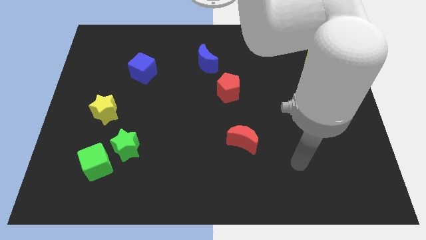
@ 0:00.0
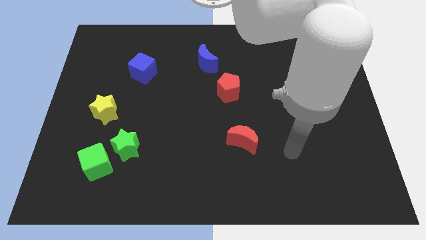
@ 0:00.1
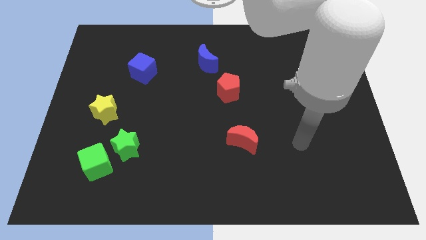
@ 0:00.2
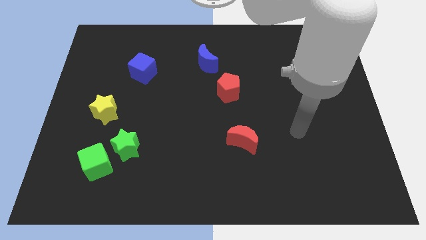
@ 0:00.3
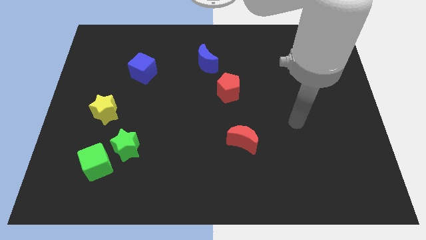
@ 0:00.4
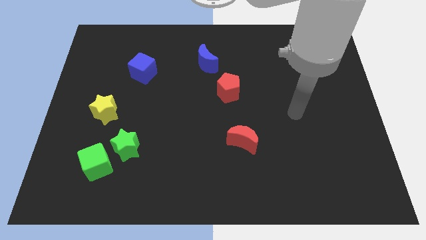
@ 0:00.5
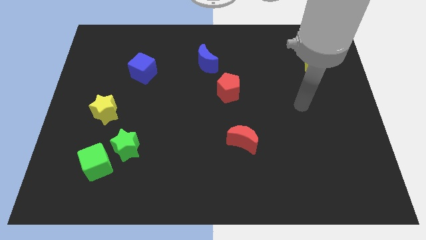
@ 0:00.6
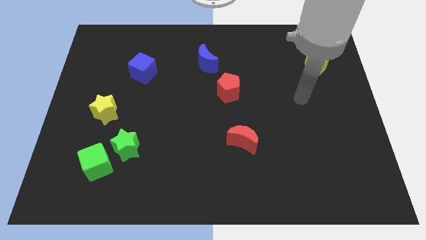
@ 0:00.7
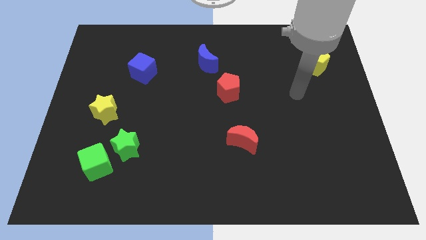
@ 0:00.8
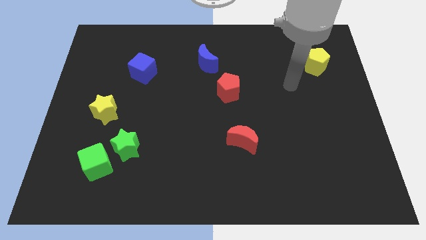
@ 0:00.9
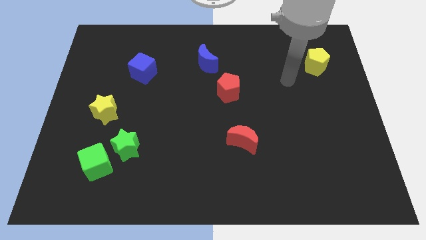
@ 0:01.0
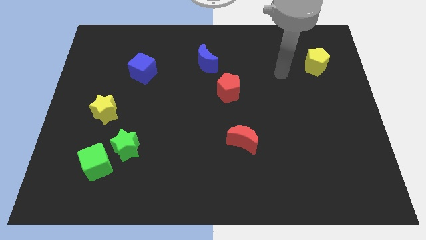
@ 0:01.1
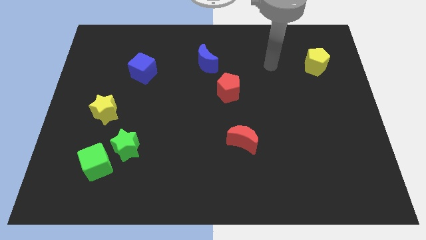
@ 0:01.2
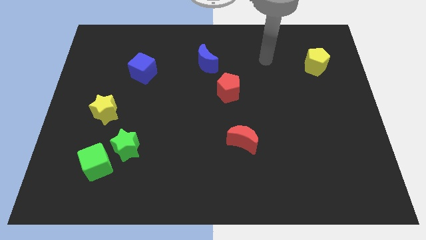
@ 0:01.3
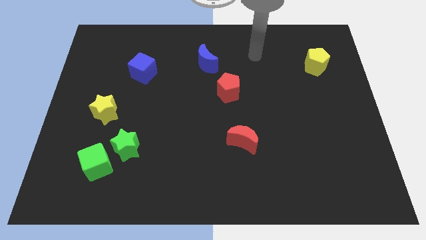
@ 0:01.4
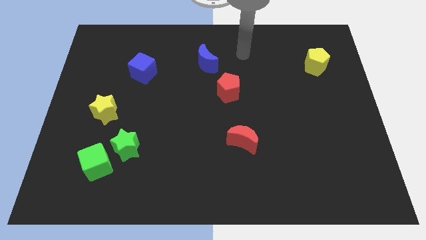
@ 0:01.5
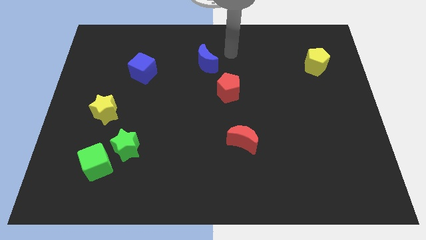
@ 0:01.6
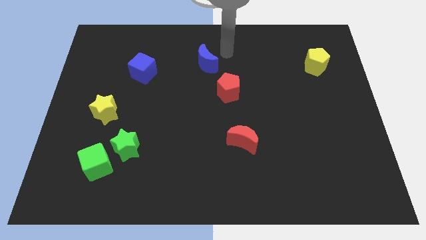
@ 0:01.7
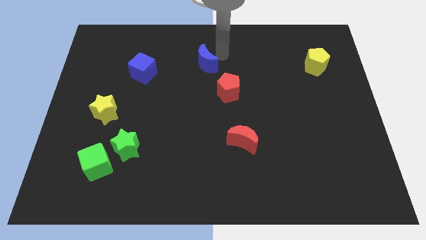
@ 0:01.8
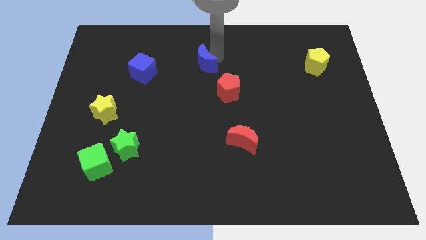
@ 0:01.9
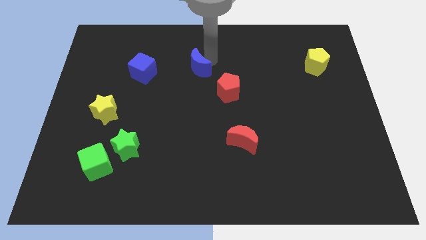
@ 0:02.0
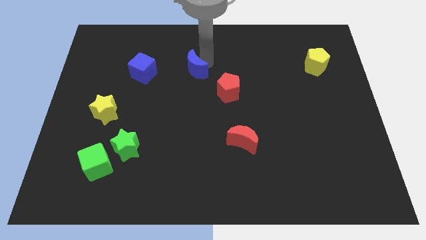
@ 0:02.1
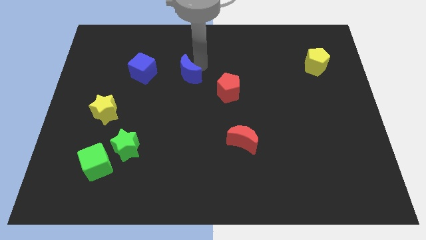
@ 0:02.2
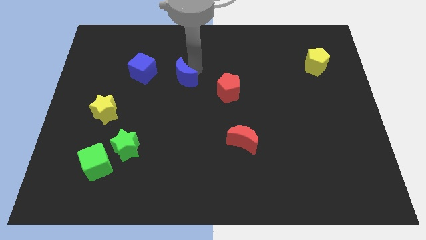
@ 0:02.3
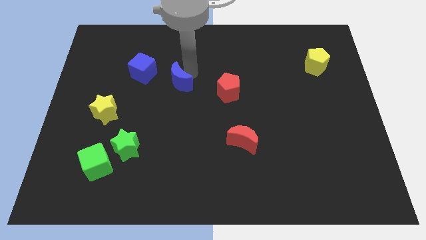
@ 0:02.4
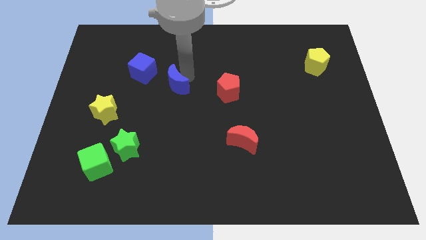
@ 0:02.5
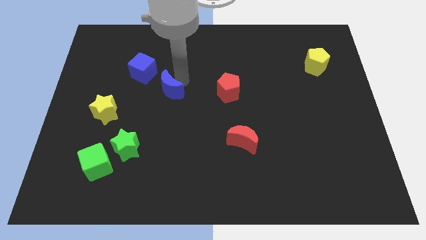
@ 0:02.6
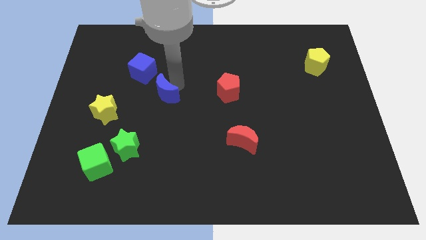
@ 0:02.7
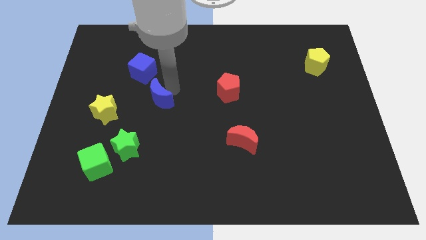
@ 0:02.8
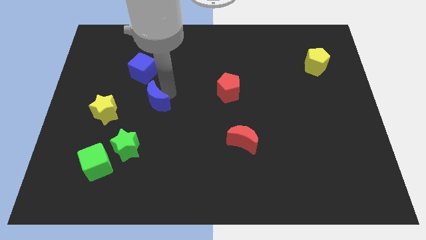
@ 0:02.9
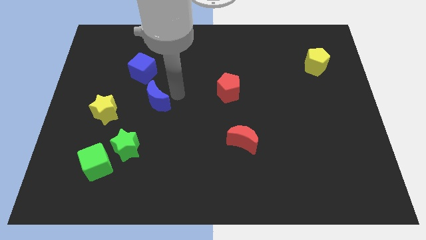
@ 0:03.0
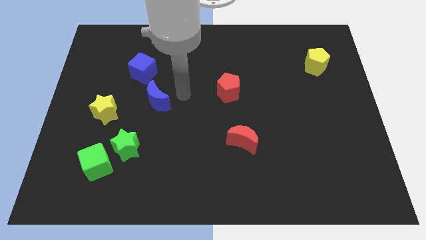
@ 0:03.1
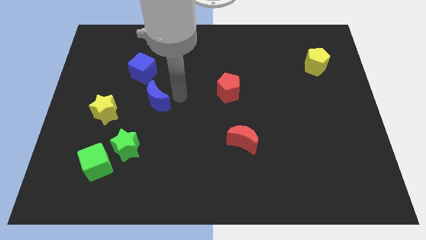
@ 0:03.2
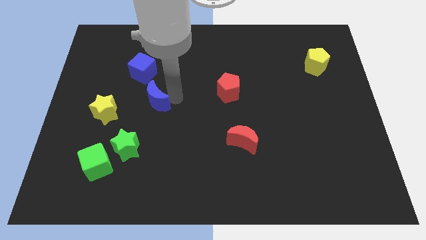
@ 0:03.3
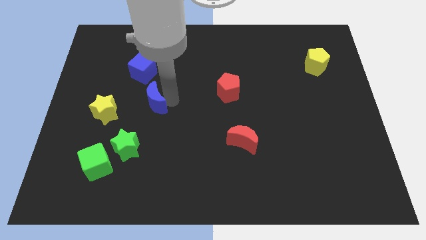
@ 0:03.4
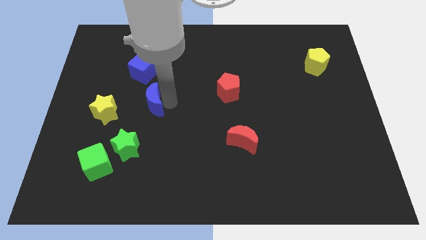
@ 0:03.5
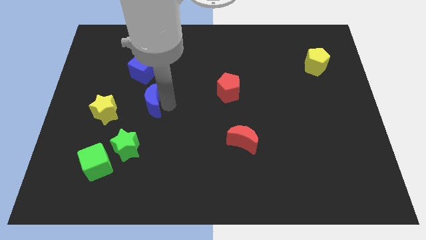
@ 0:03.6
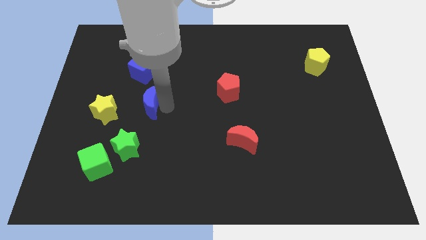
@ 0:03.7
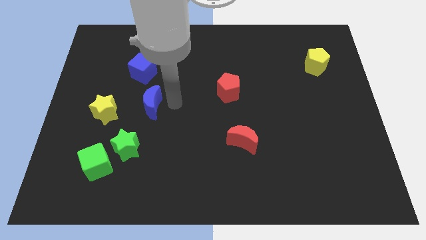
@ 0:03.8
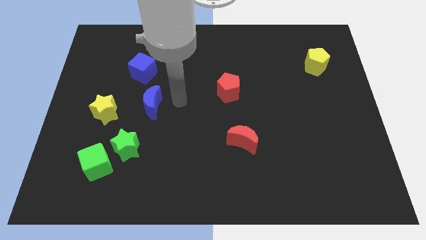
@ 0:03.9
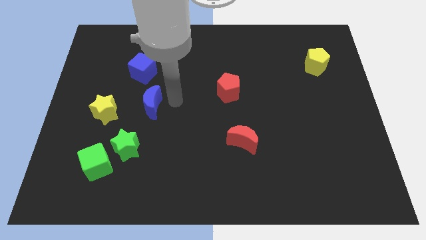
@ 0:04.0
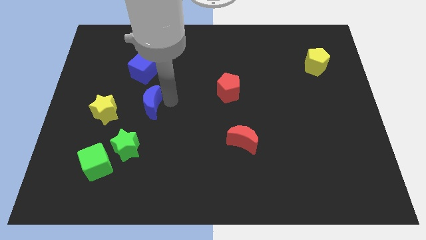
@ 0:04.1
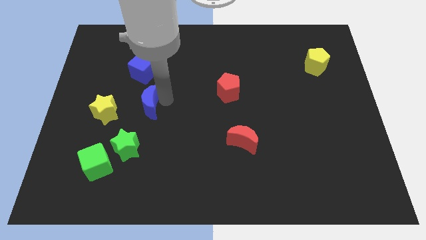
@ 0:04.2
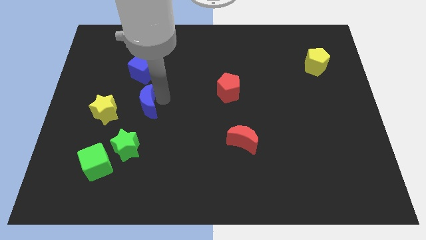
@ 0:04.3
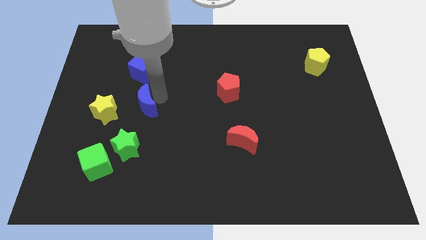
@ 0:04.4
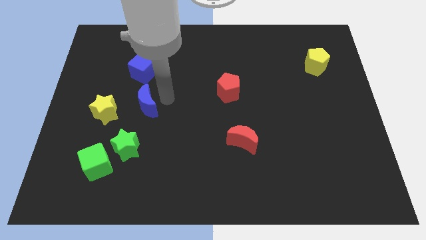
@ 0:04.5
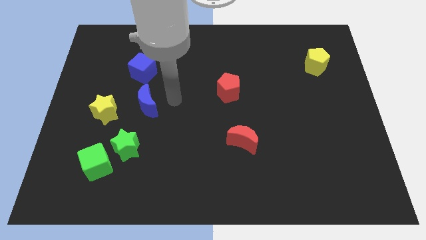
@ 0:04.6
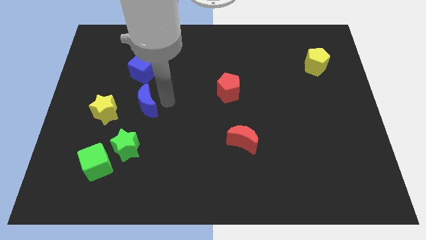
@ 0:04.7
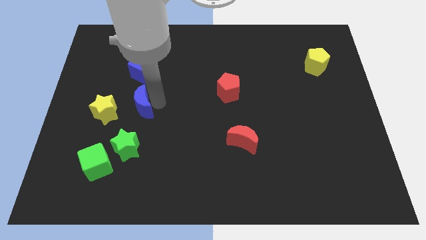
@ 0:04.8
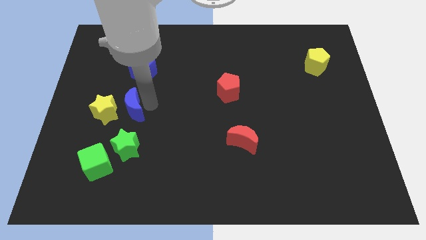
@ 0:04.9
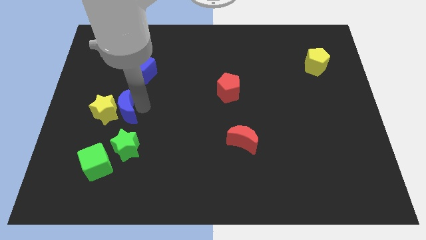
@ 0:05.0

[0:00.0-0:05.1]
slide the blue moon close to the yellow star

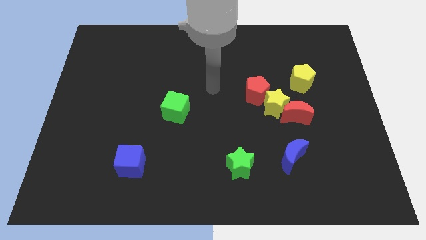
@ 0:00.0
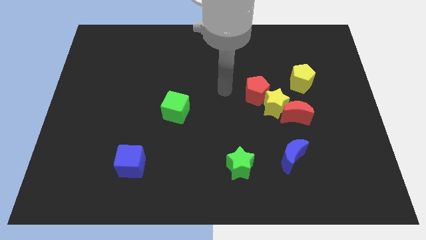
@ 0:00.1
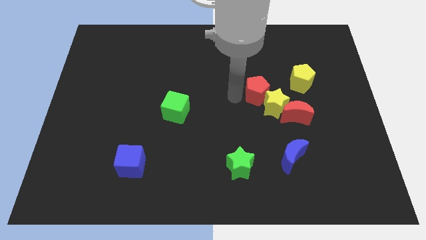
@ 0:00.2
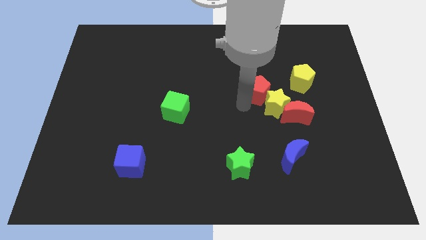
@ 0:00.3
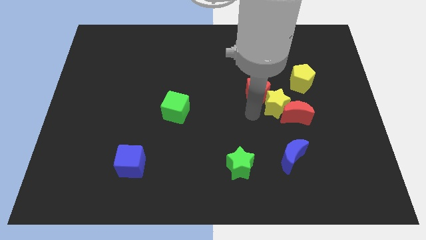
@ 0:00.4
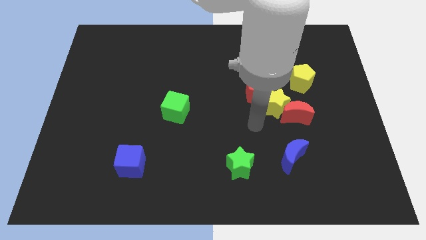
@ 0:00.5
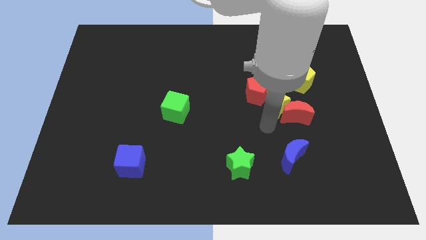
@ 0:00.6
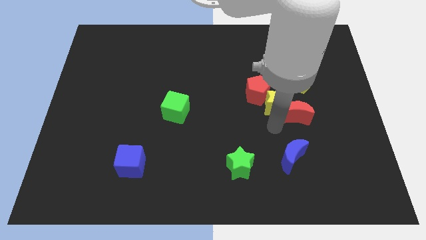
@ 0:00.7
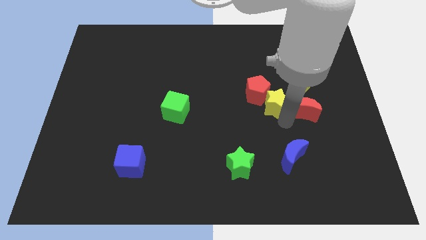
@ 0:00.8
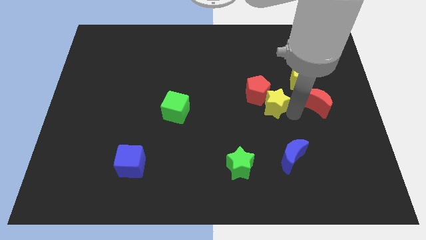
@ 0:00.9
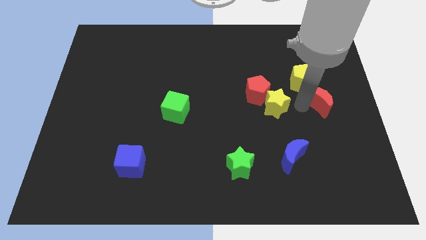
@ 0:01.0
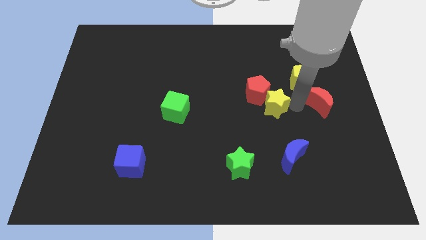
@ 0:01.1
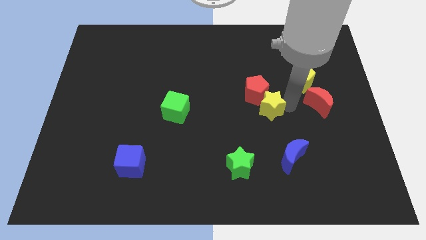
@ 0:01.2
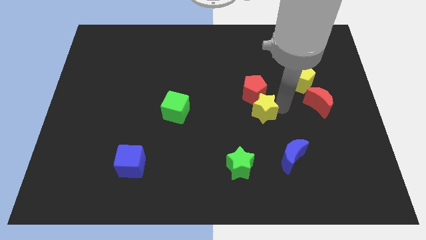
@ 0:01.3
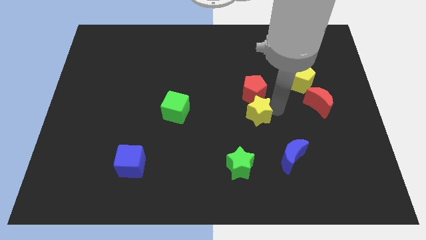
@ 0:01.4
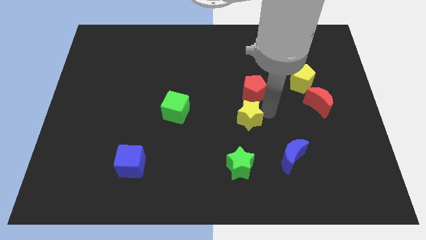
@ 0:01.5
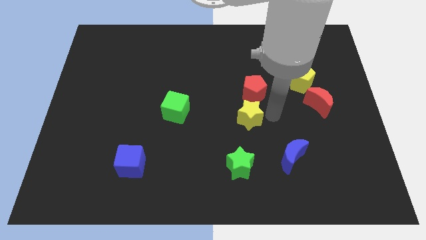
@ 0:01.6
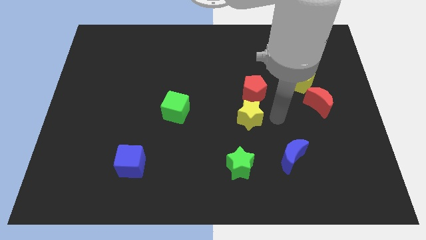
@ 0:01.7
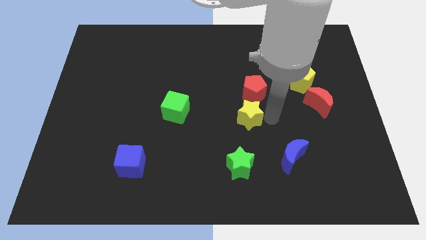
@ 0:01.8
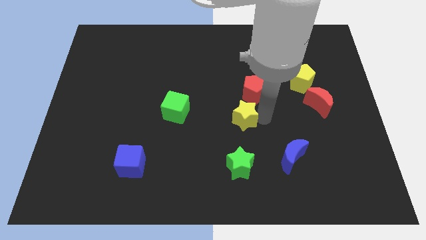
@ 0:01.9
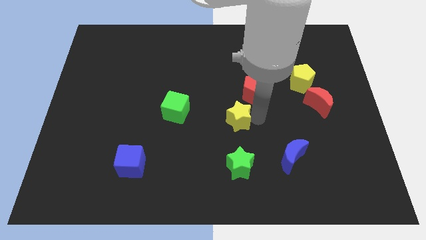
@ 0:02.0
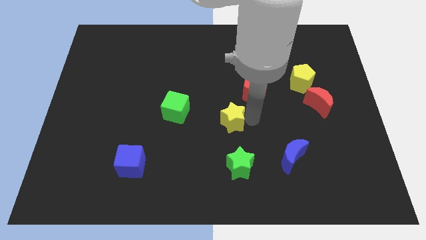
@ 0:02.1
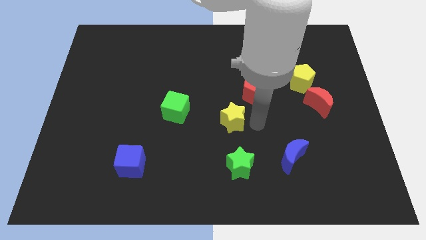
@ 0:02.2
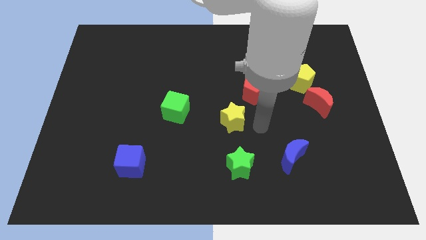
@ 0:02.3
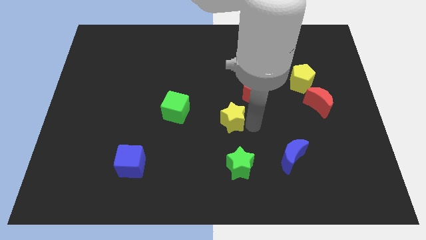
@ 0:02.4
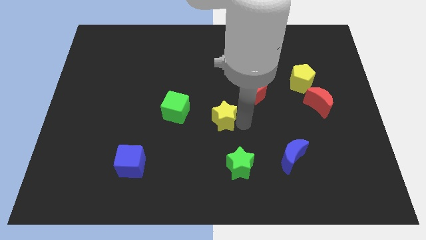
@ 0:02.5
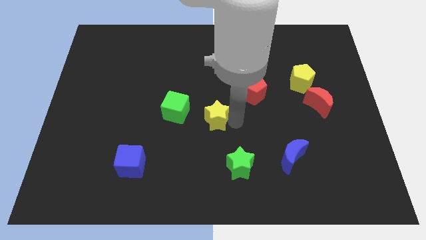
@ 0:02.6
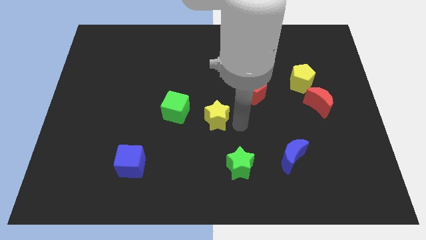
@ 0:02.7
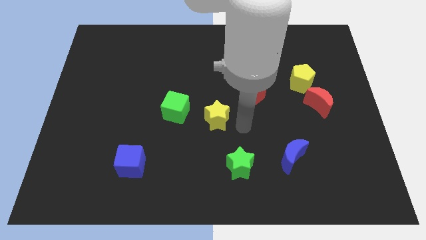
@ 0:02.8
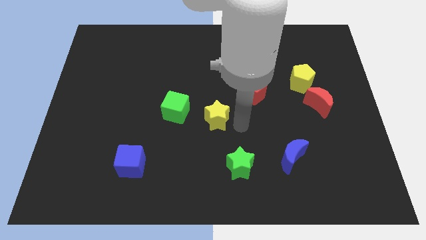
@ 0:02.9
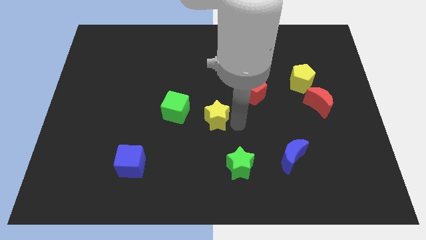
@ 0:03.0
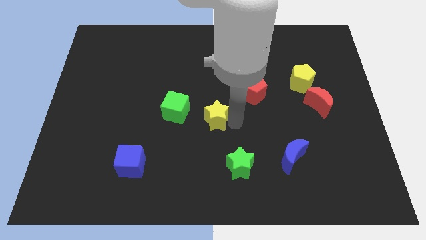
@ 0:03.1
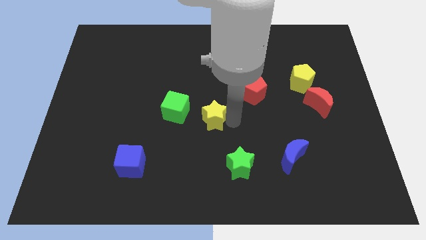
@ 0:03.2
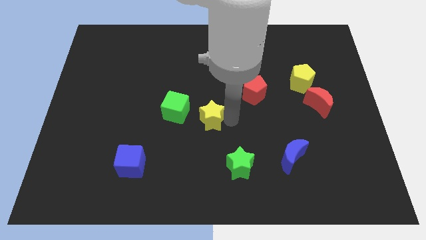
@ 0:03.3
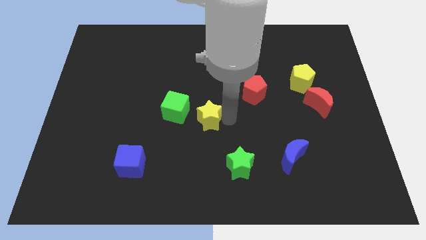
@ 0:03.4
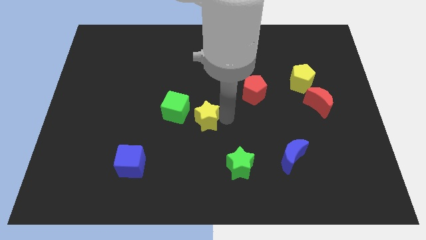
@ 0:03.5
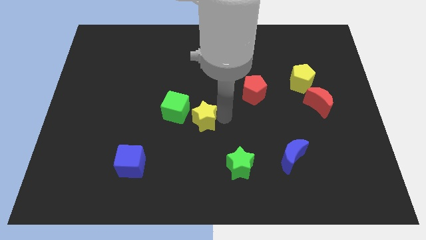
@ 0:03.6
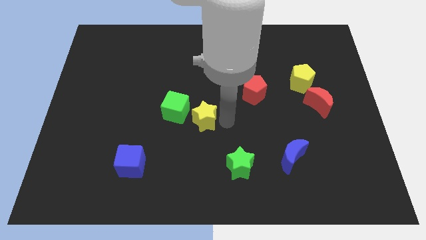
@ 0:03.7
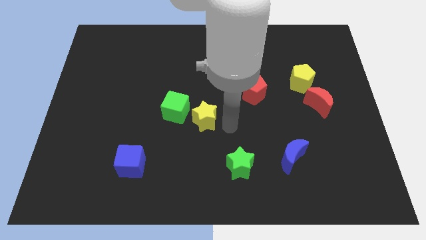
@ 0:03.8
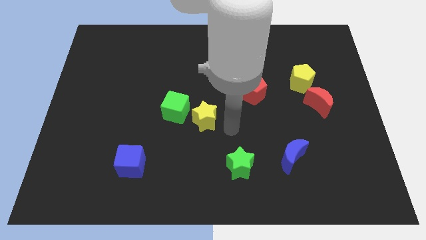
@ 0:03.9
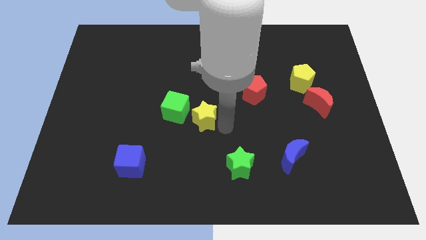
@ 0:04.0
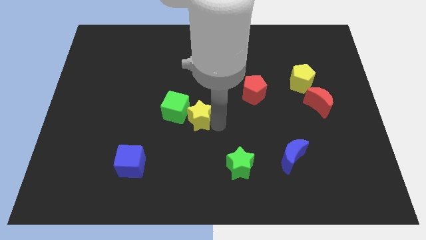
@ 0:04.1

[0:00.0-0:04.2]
put the yellow star to the green cube
